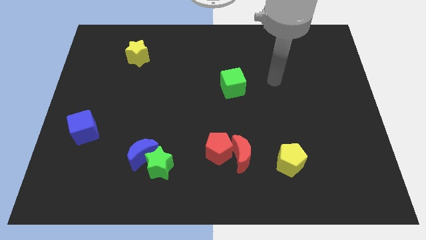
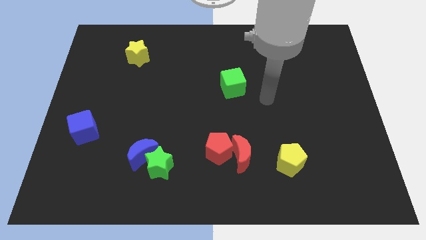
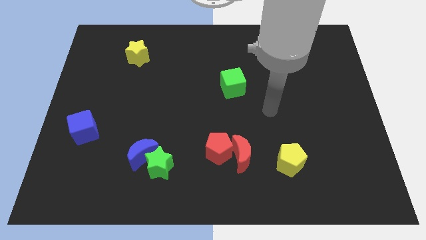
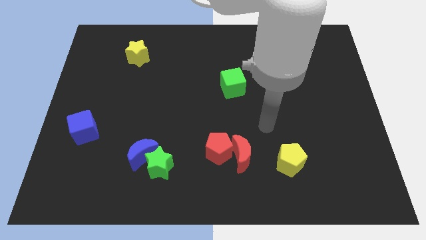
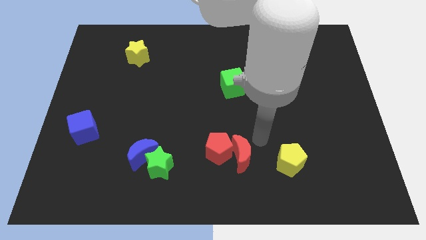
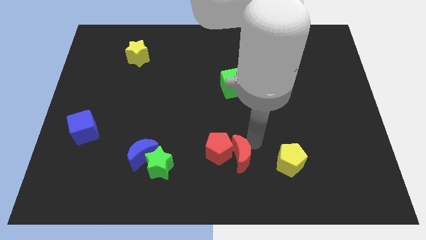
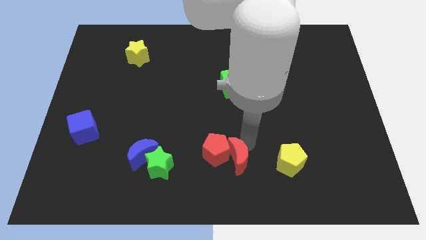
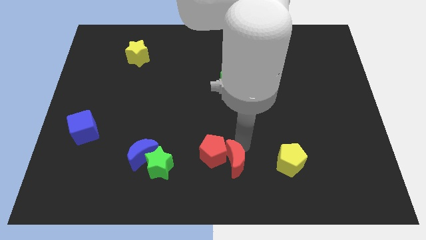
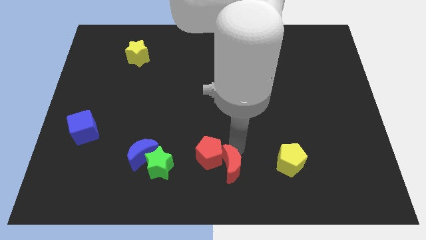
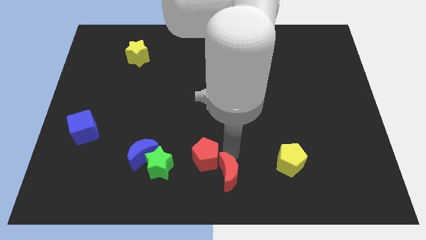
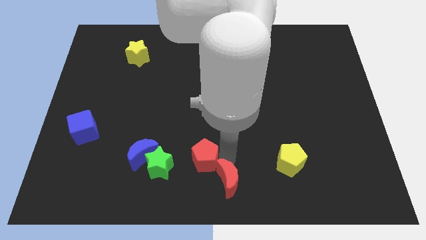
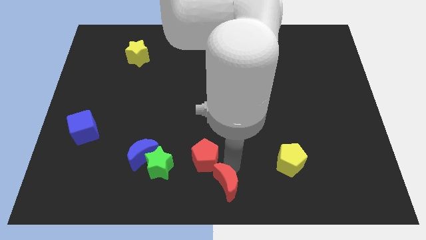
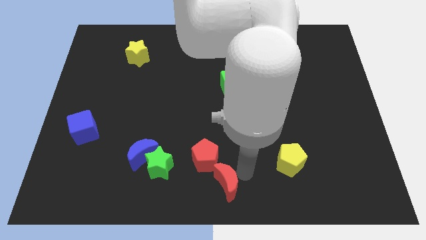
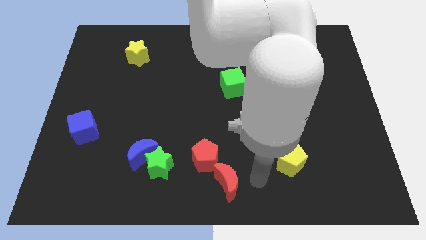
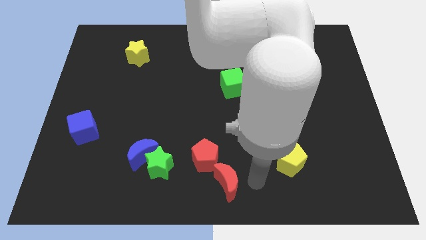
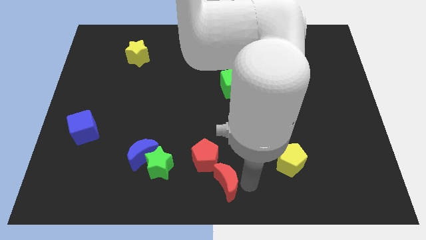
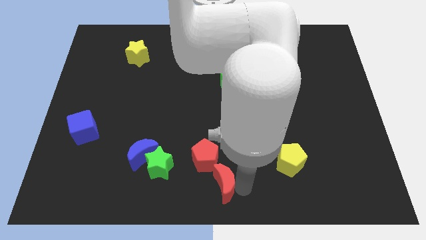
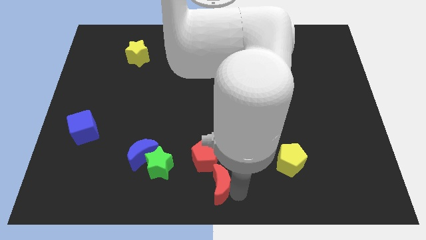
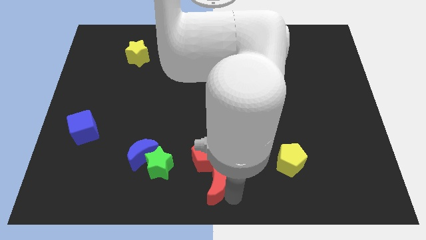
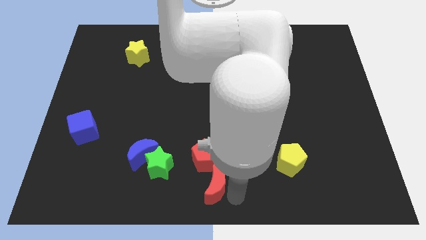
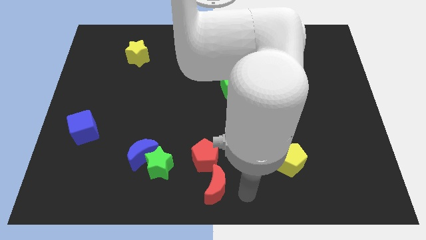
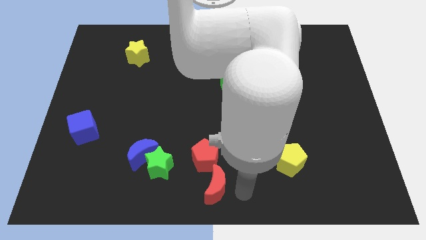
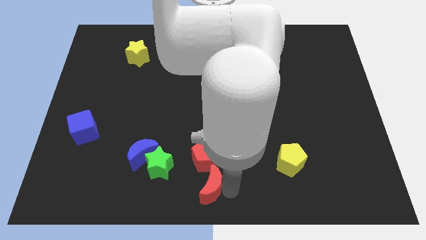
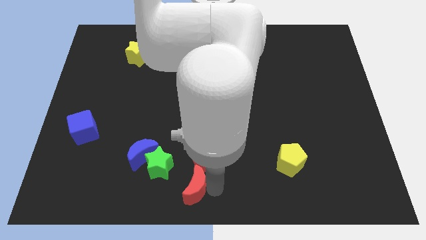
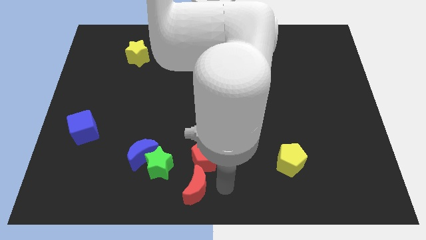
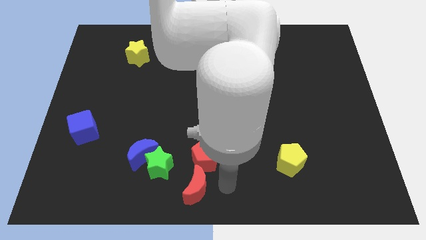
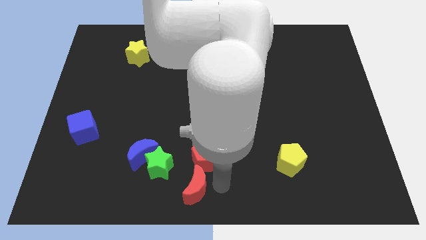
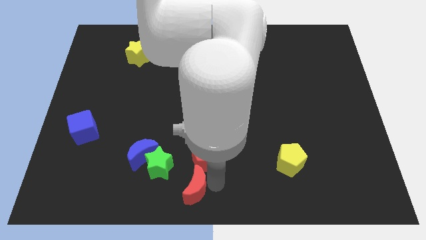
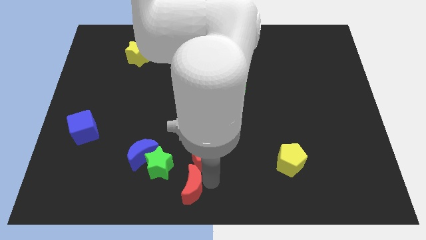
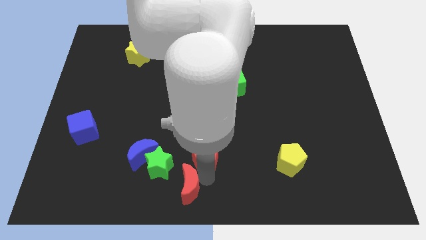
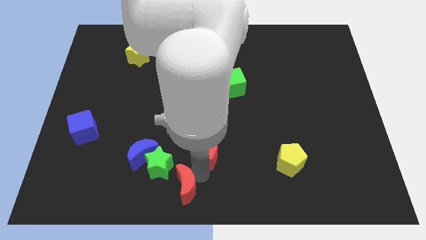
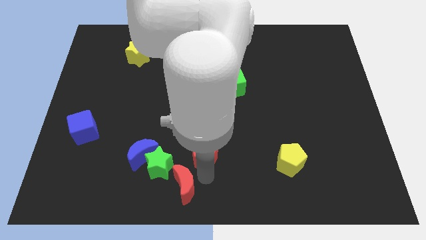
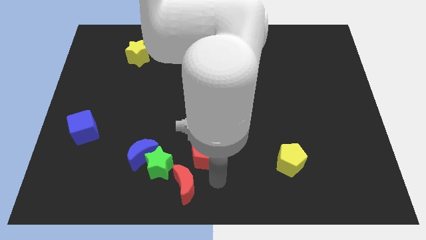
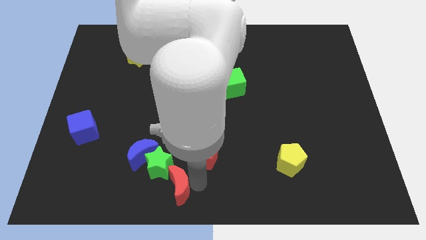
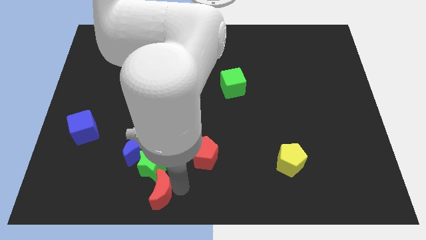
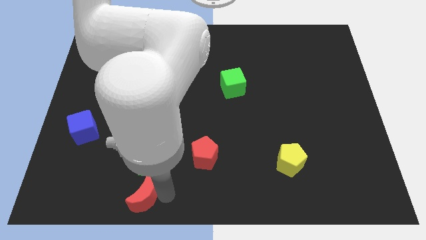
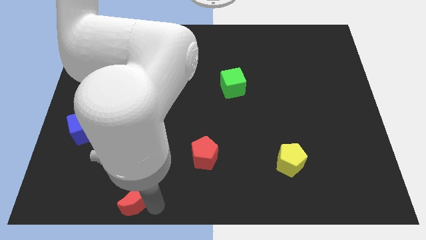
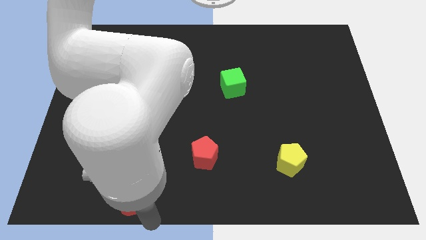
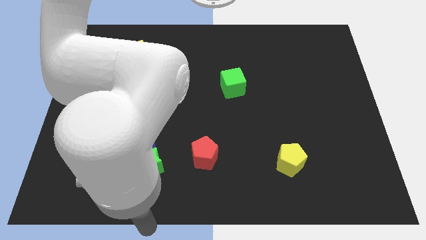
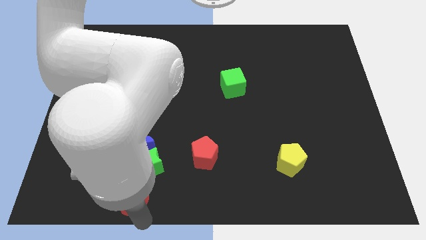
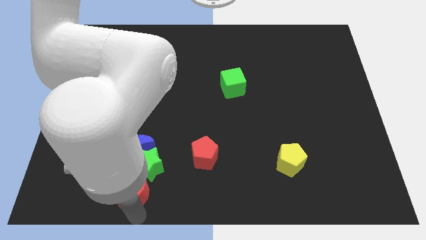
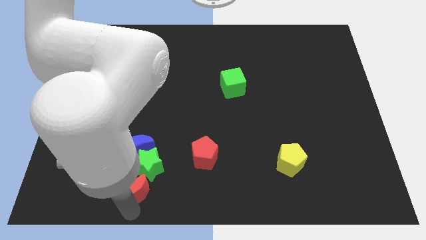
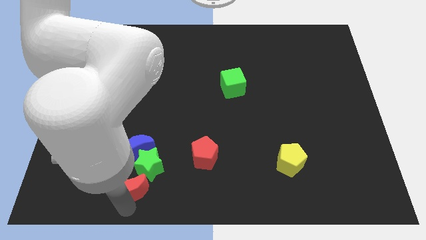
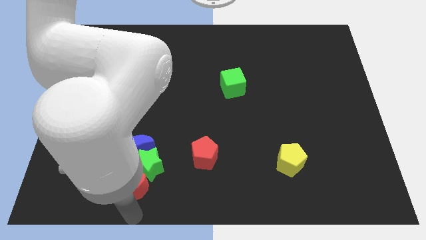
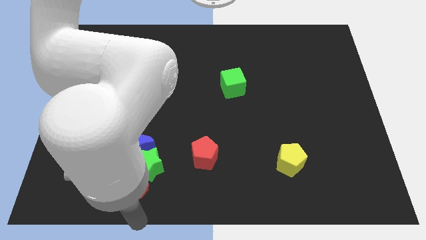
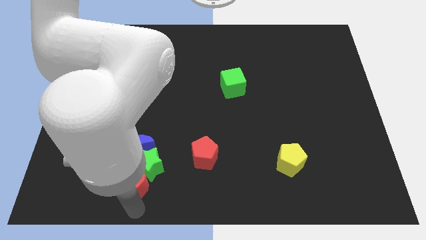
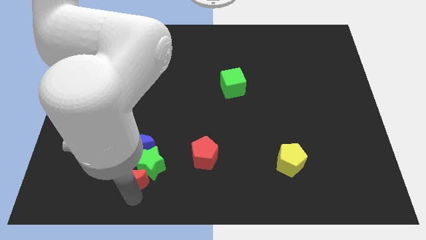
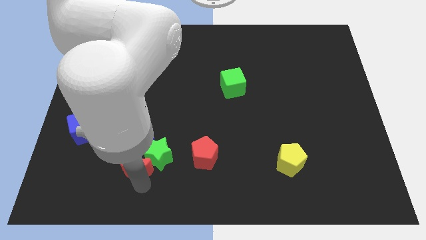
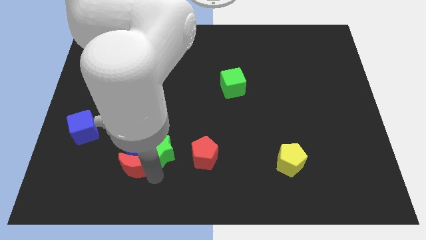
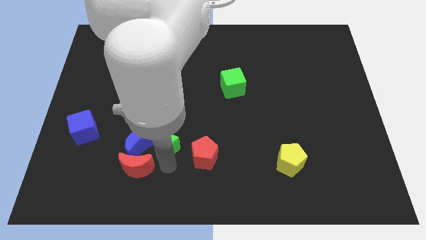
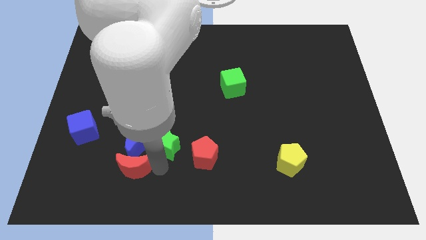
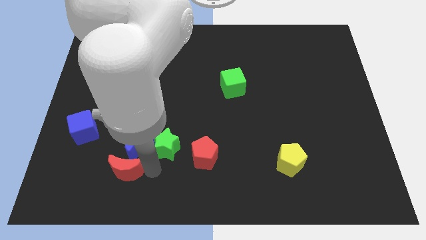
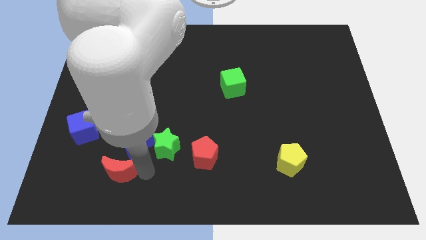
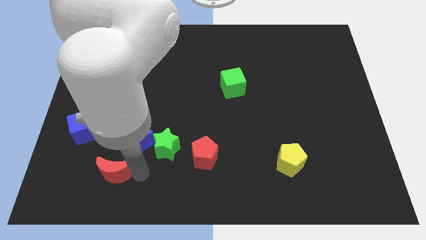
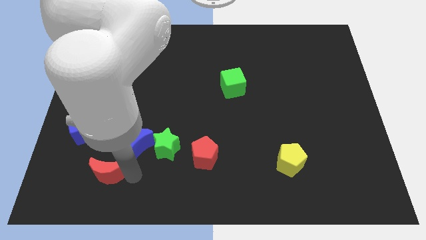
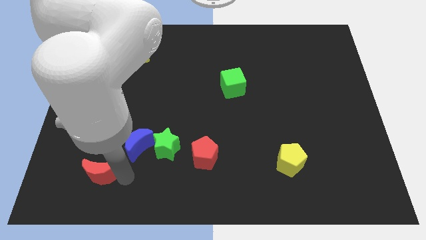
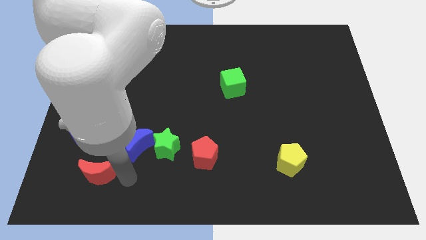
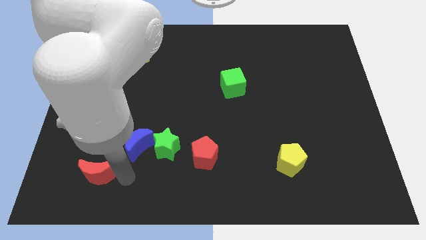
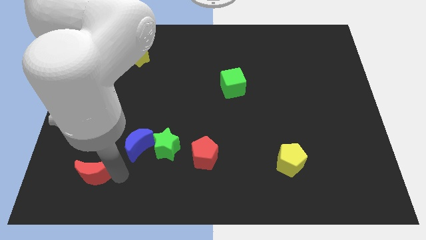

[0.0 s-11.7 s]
push the red moon to the bottom of the blue cube

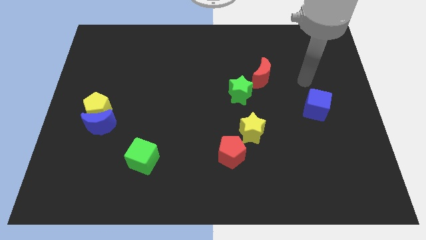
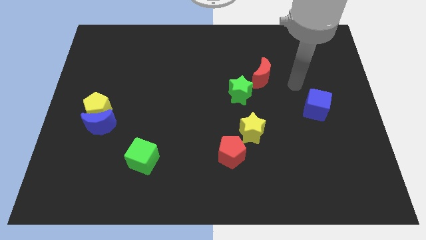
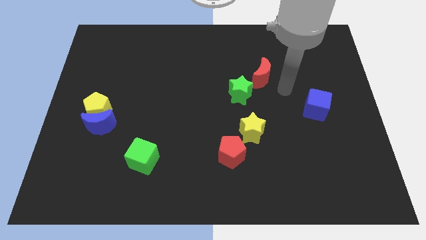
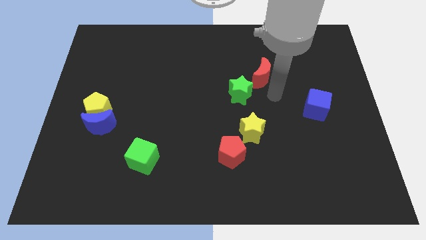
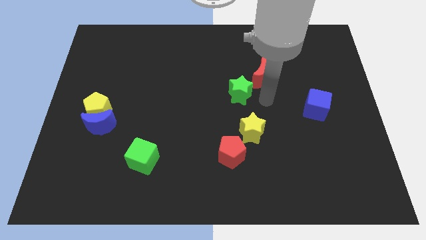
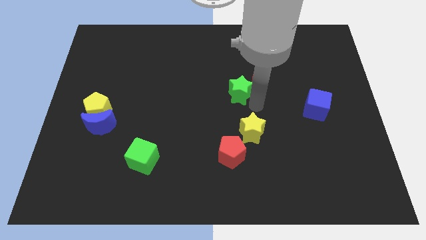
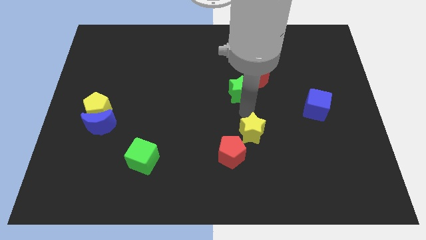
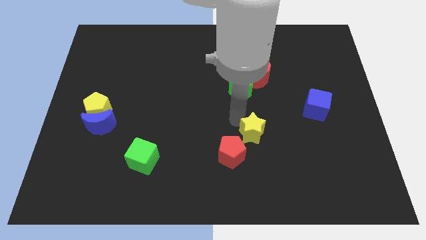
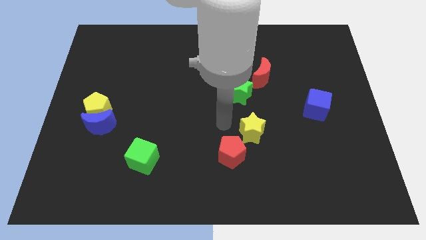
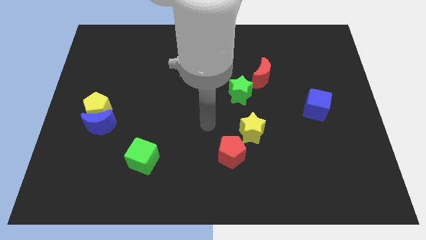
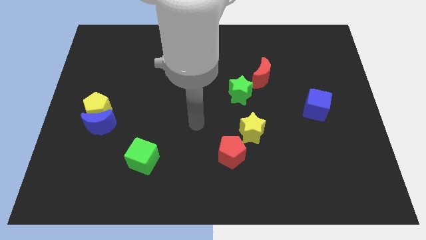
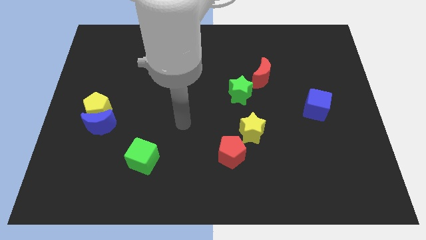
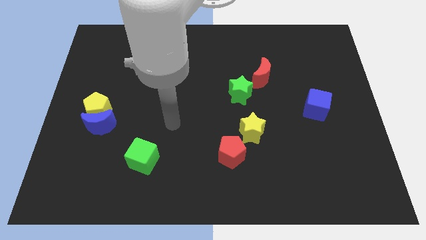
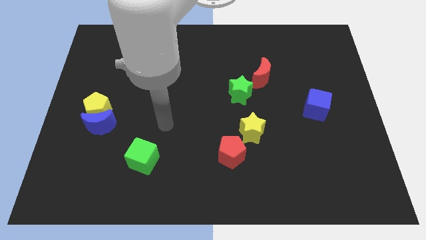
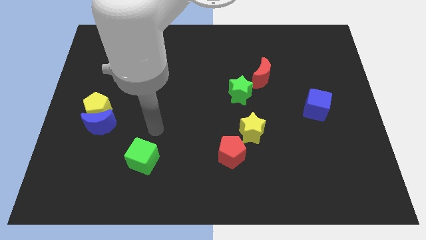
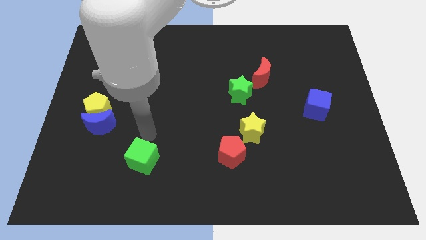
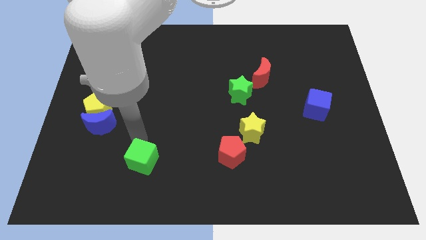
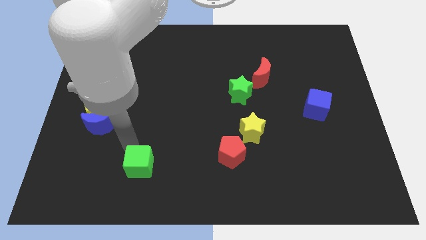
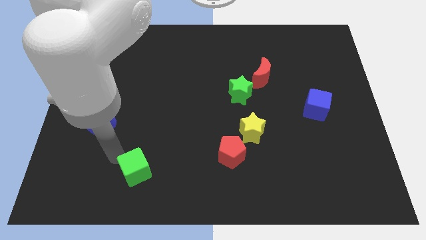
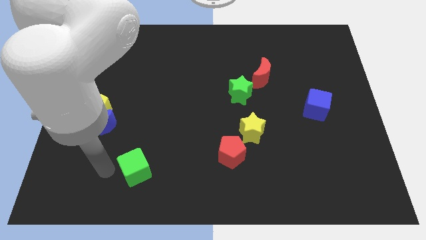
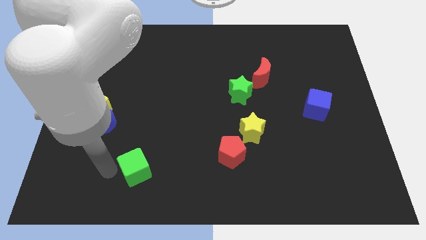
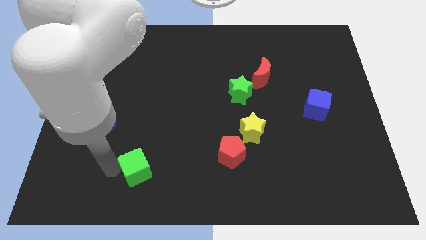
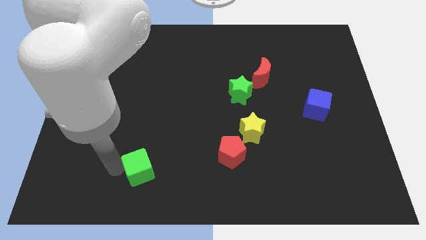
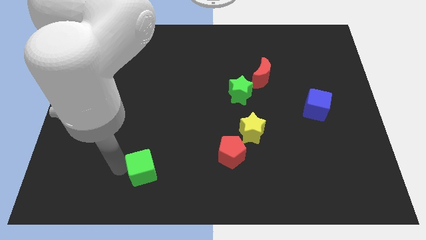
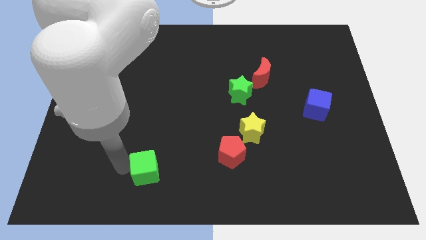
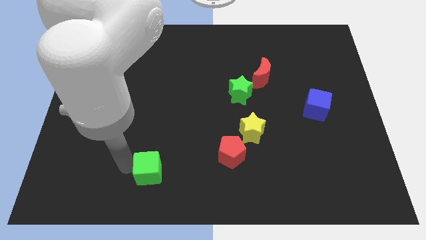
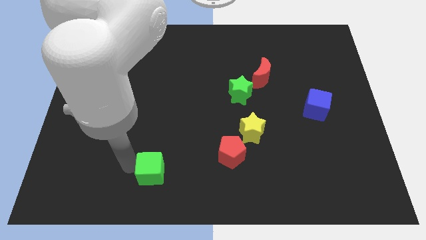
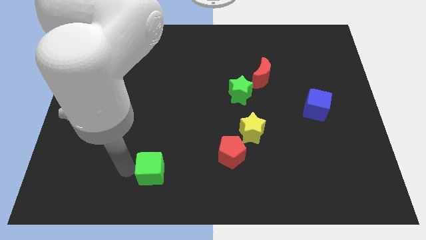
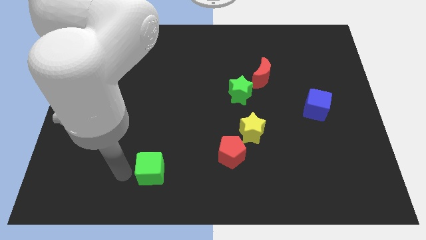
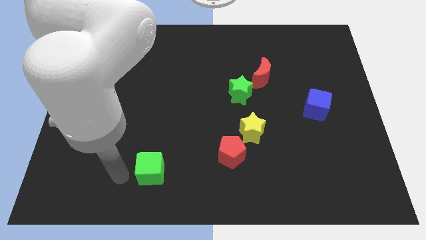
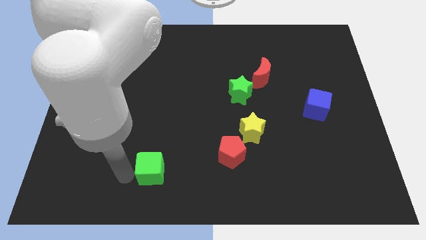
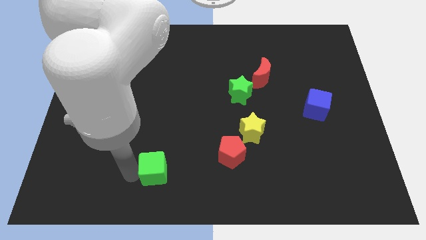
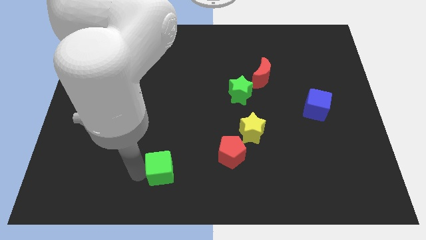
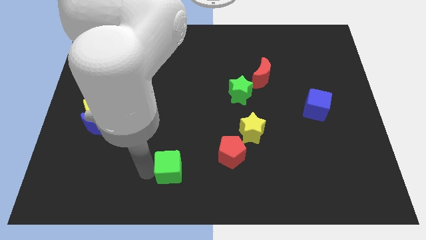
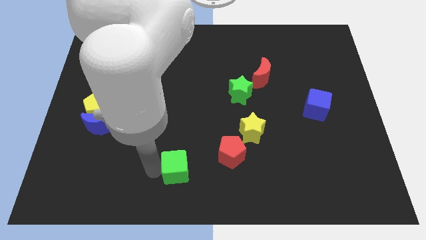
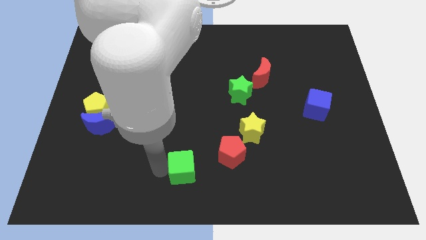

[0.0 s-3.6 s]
slide the green cube to the bottom left side of the red pentagon
